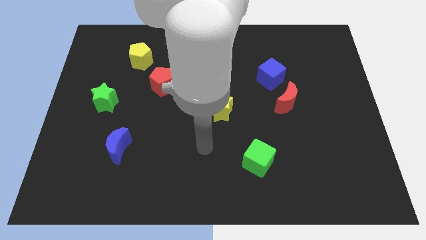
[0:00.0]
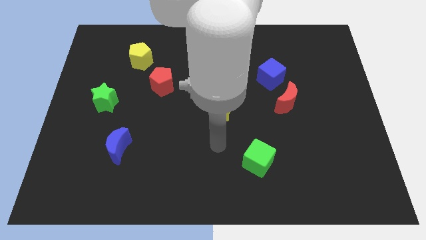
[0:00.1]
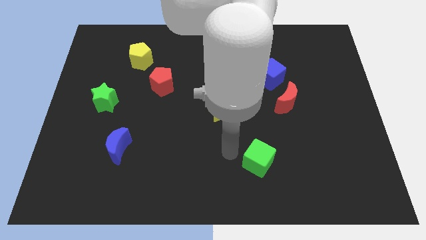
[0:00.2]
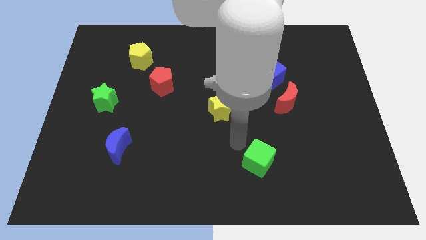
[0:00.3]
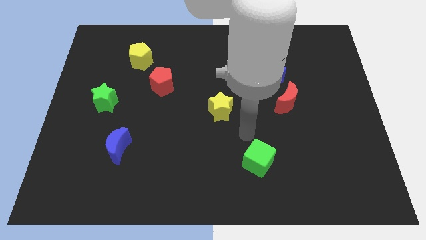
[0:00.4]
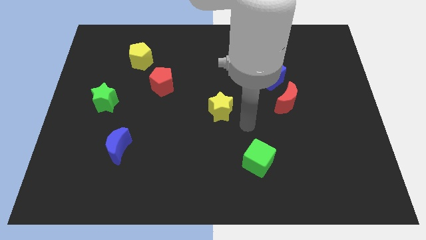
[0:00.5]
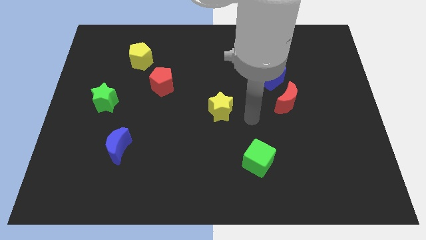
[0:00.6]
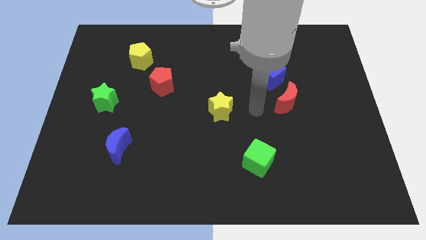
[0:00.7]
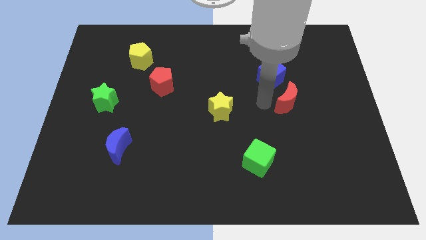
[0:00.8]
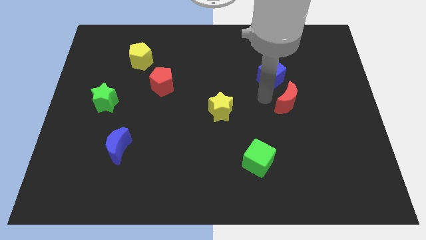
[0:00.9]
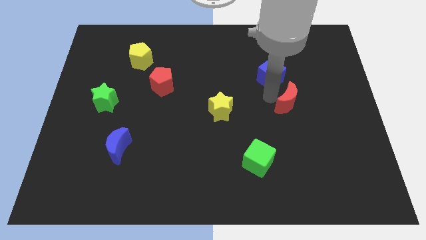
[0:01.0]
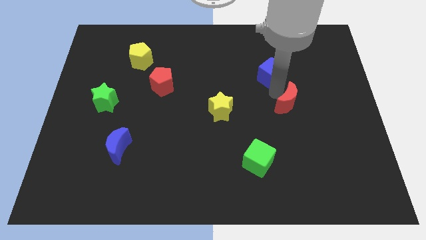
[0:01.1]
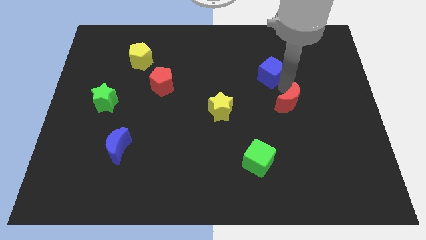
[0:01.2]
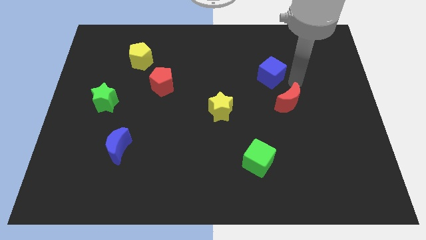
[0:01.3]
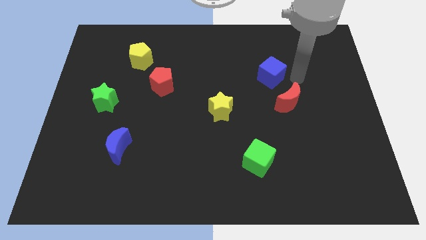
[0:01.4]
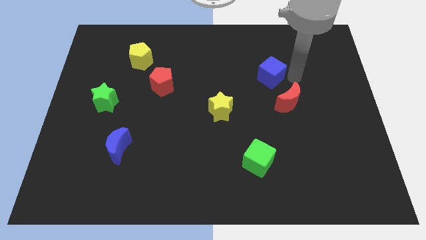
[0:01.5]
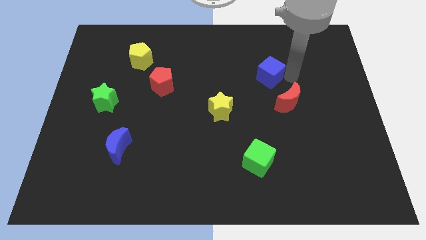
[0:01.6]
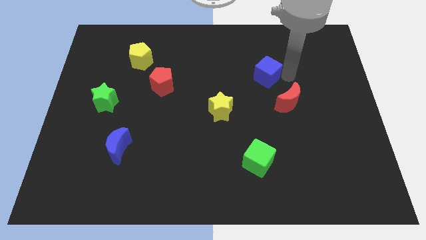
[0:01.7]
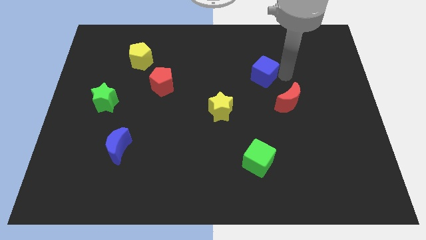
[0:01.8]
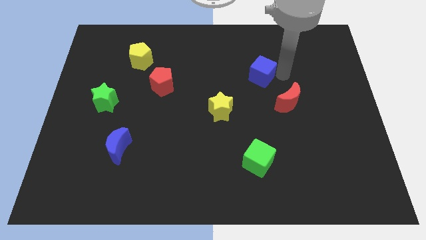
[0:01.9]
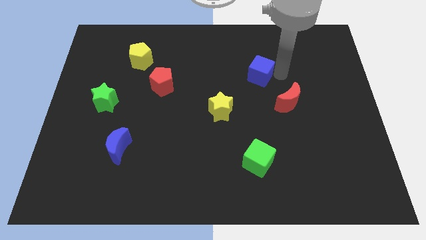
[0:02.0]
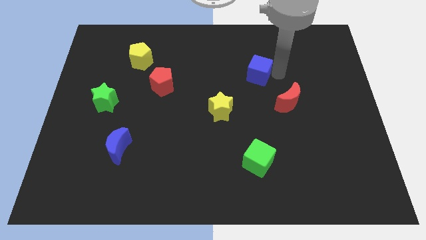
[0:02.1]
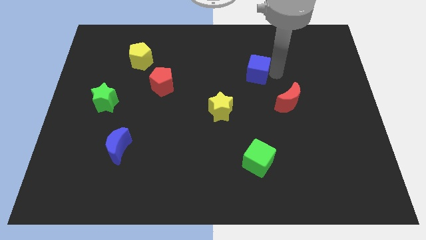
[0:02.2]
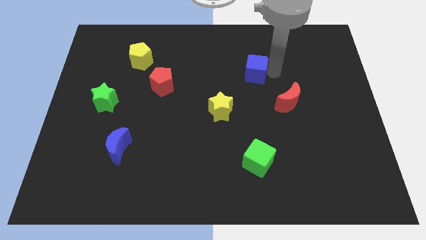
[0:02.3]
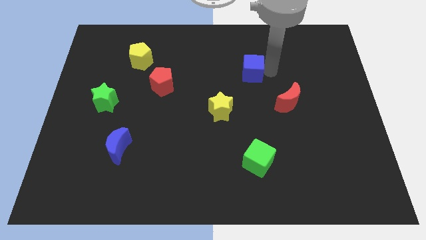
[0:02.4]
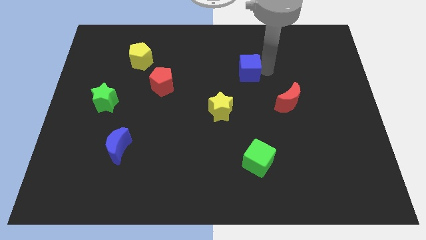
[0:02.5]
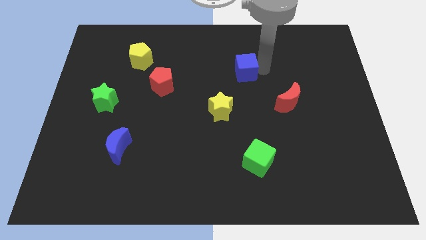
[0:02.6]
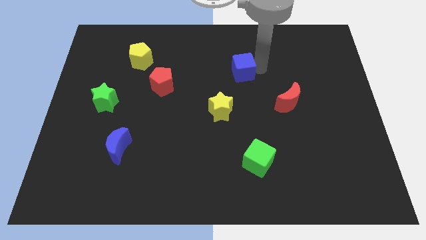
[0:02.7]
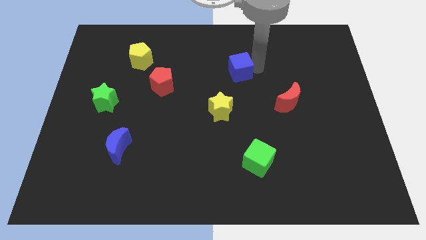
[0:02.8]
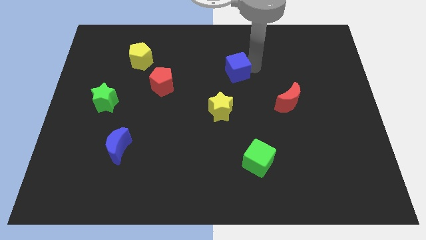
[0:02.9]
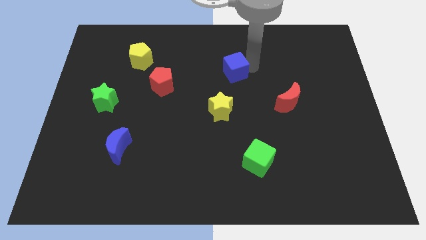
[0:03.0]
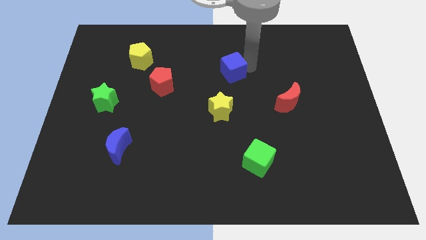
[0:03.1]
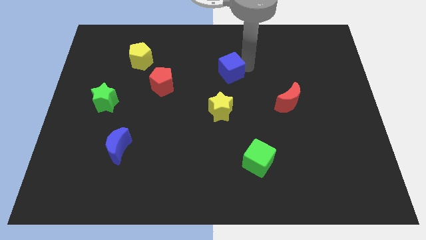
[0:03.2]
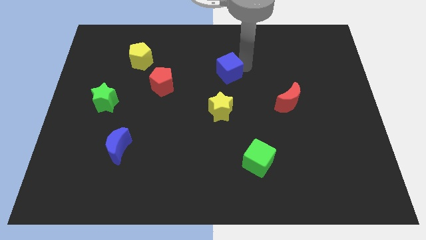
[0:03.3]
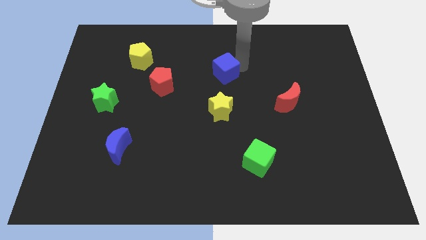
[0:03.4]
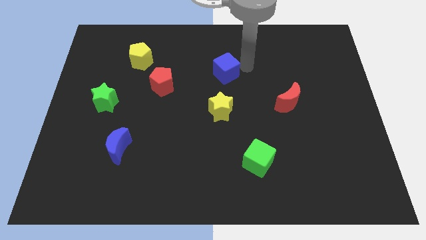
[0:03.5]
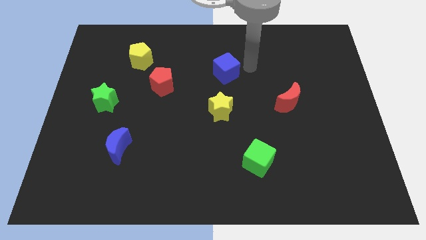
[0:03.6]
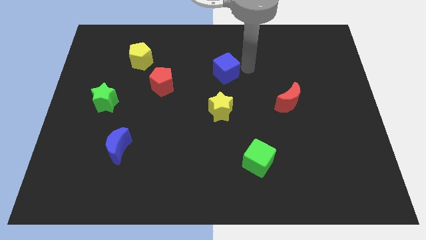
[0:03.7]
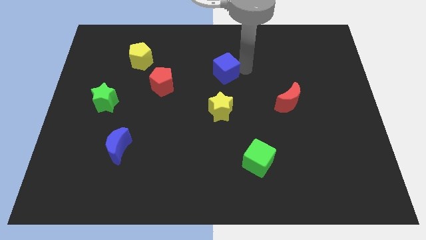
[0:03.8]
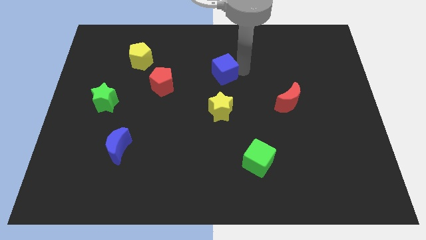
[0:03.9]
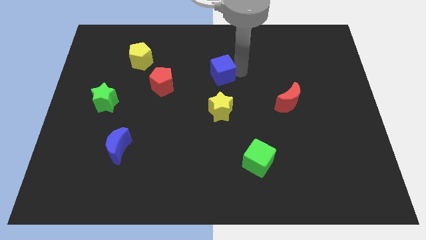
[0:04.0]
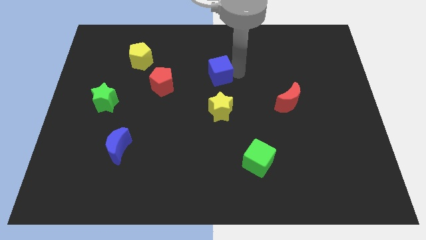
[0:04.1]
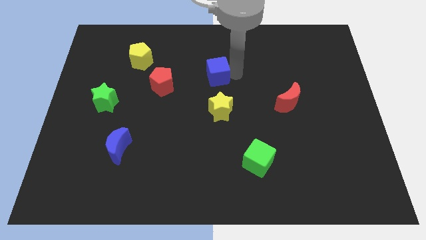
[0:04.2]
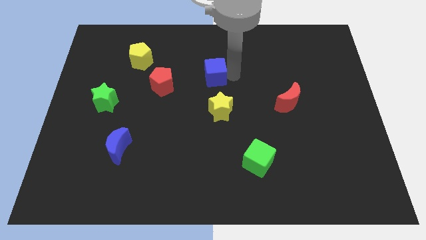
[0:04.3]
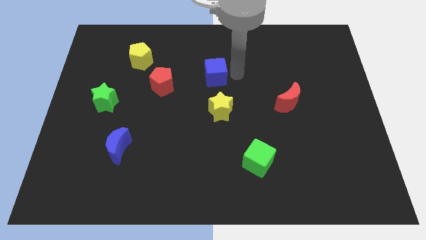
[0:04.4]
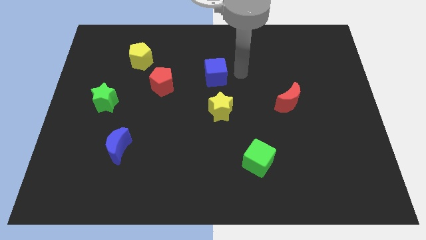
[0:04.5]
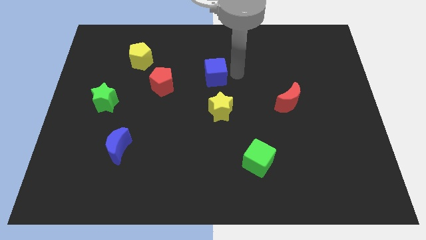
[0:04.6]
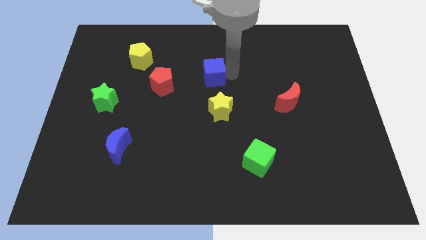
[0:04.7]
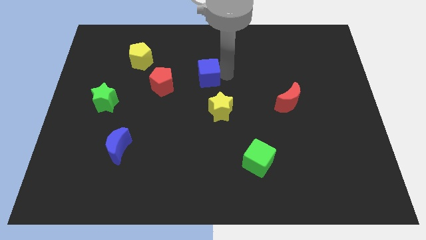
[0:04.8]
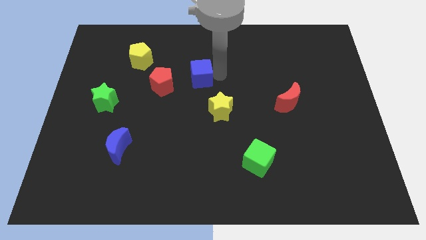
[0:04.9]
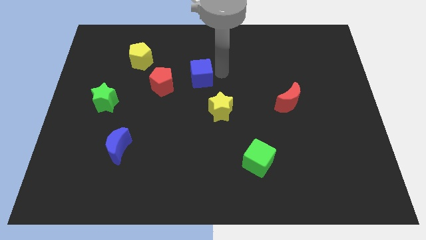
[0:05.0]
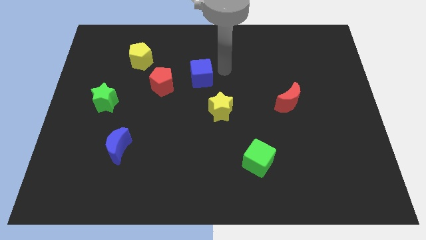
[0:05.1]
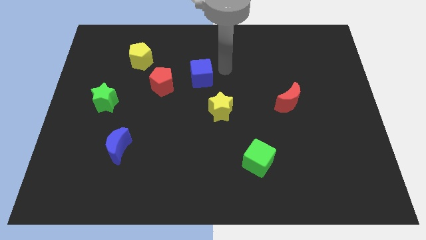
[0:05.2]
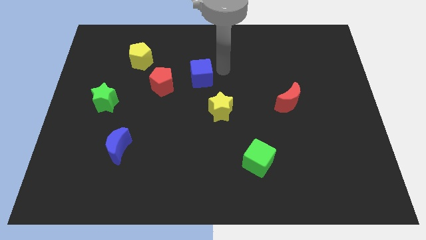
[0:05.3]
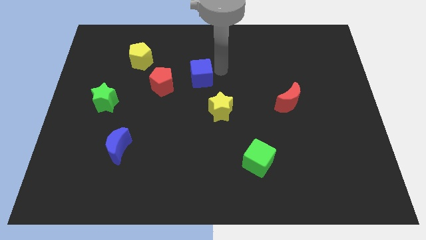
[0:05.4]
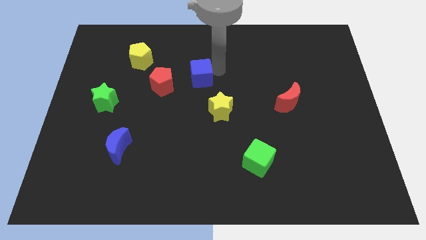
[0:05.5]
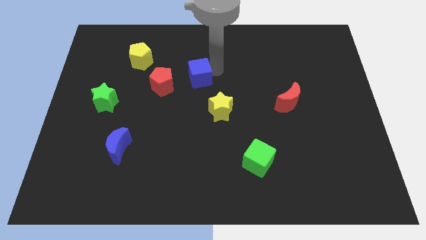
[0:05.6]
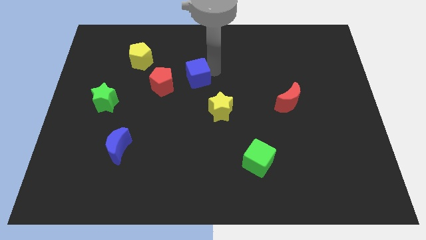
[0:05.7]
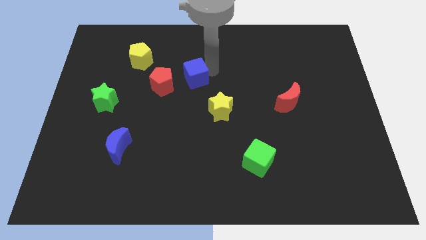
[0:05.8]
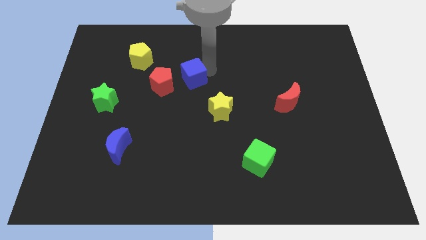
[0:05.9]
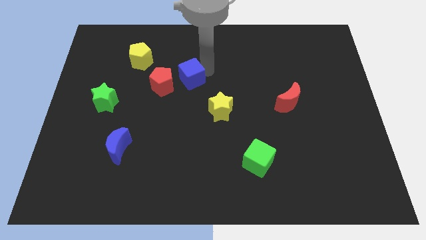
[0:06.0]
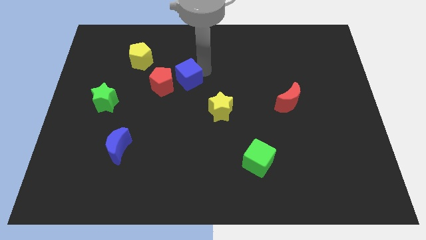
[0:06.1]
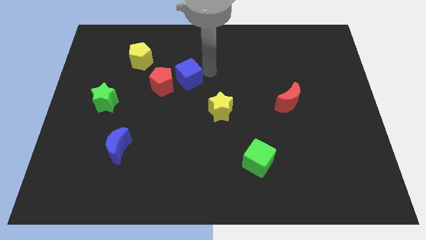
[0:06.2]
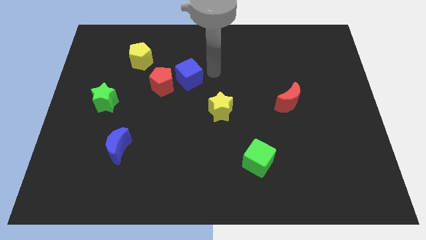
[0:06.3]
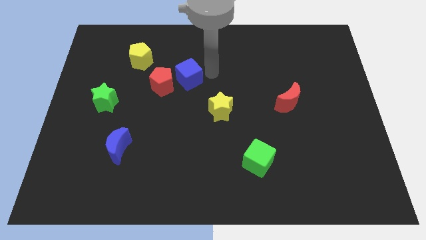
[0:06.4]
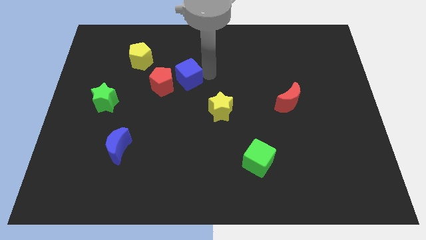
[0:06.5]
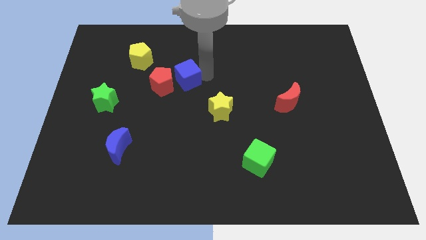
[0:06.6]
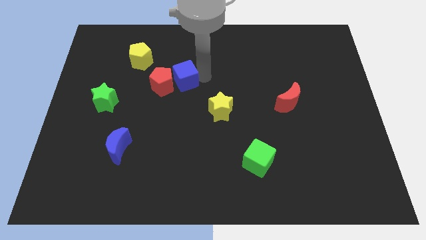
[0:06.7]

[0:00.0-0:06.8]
slide the blue cube to the red pentagon

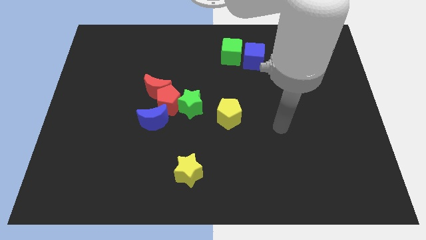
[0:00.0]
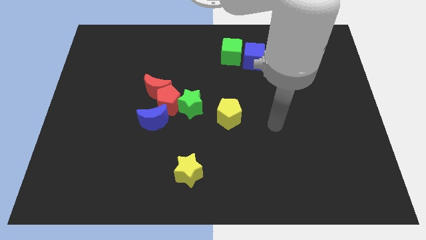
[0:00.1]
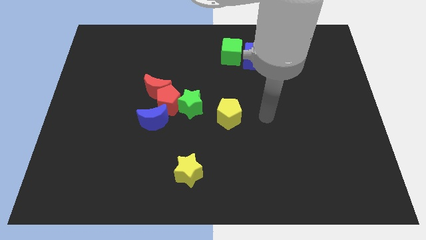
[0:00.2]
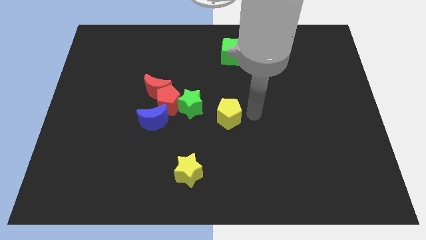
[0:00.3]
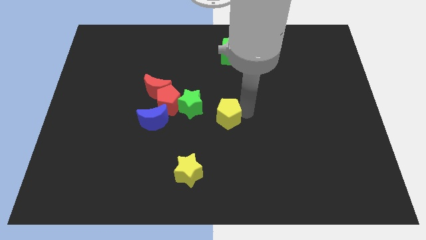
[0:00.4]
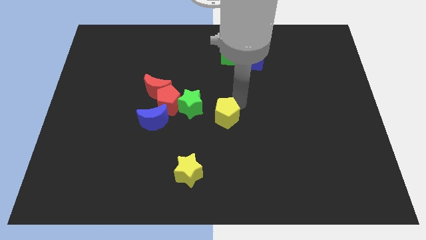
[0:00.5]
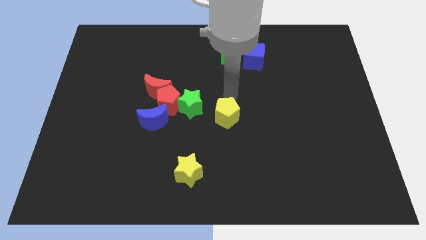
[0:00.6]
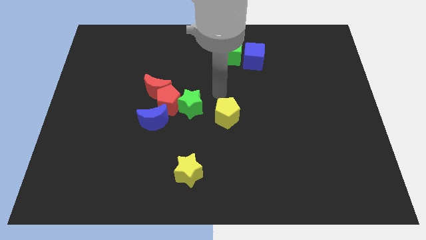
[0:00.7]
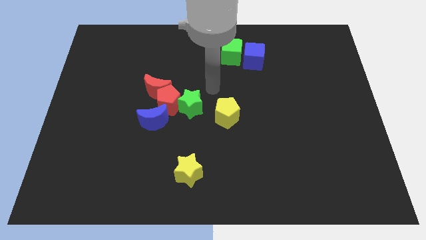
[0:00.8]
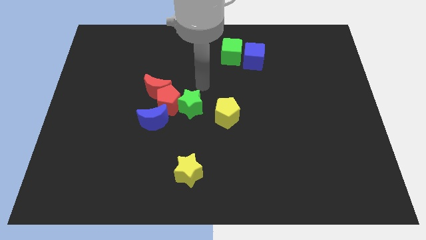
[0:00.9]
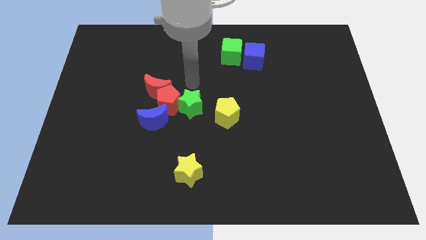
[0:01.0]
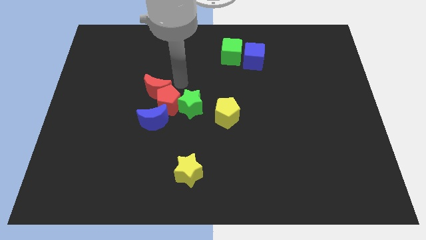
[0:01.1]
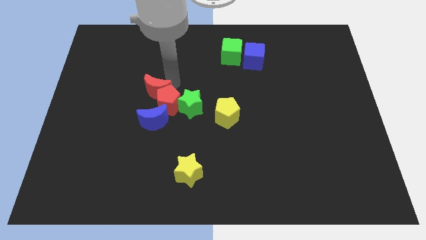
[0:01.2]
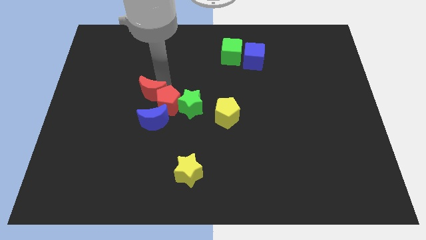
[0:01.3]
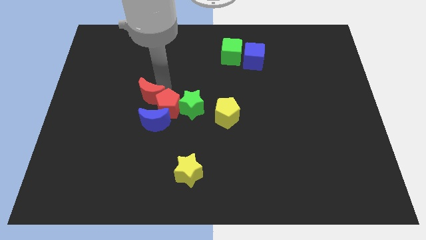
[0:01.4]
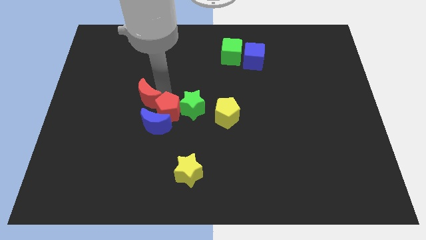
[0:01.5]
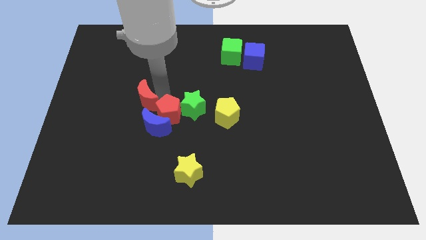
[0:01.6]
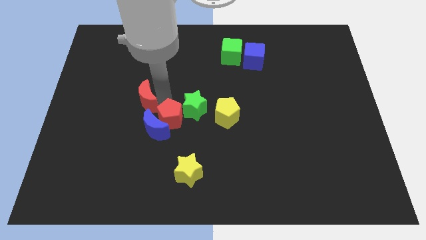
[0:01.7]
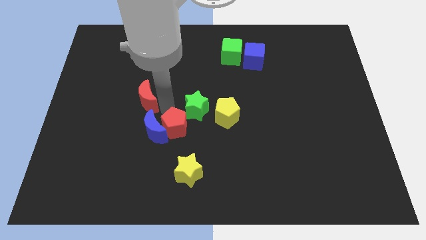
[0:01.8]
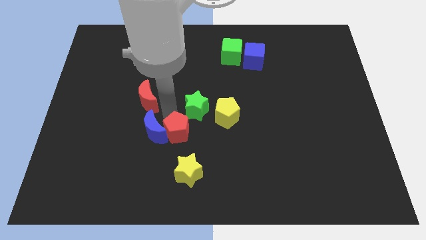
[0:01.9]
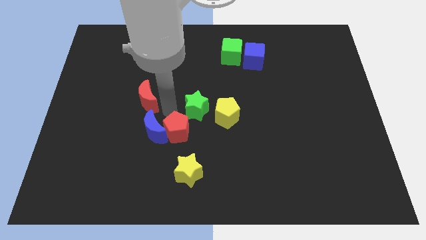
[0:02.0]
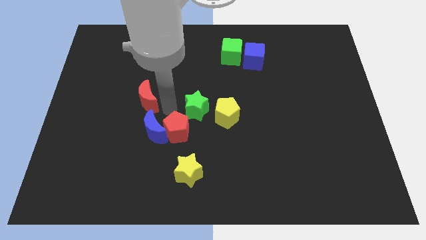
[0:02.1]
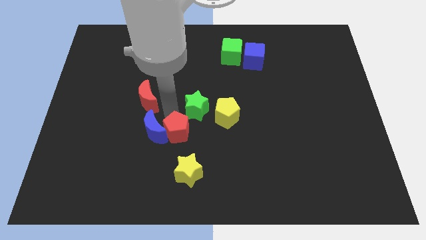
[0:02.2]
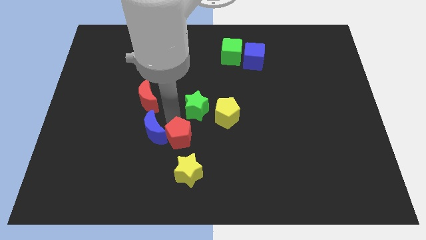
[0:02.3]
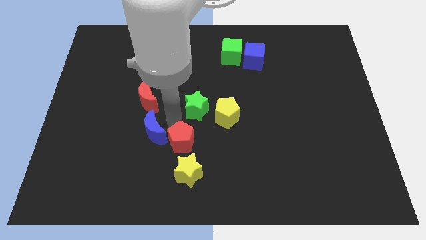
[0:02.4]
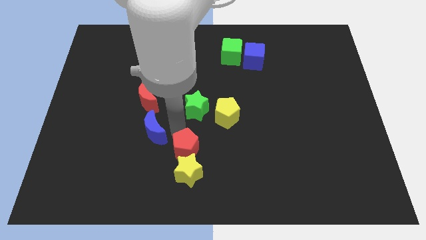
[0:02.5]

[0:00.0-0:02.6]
move the red pentagon next to the yellow star
